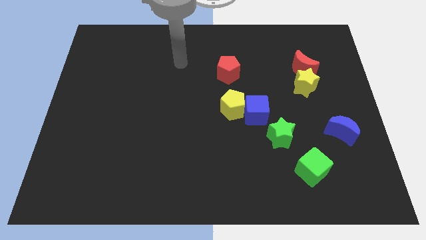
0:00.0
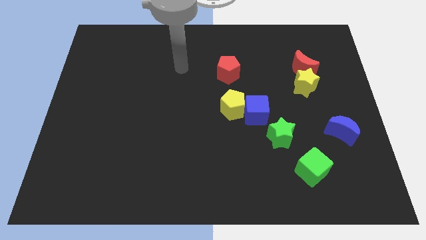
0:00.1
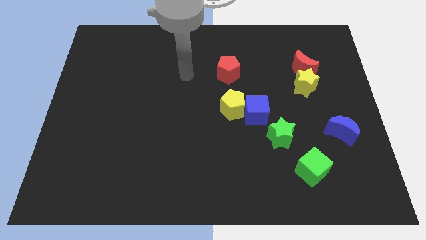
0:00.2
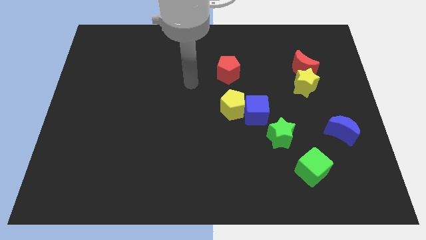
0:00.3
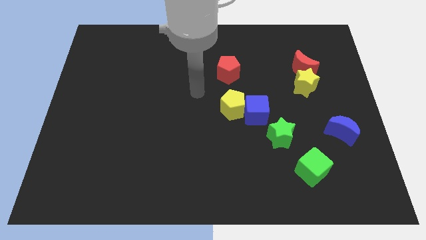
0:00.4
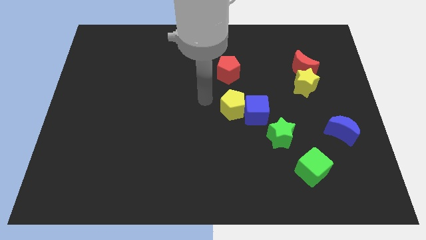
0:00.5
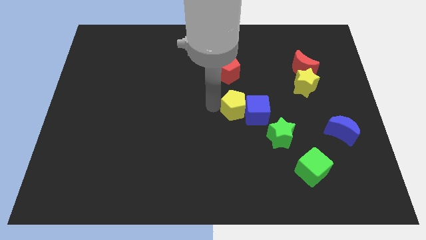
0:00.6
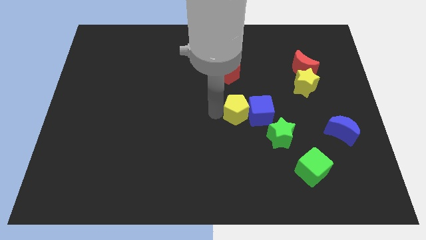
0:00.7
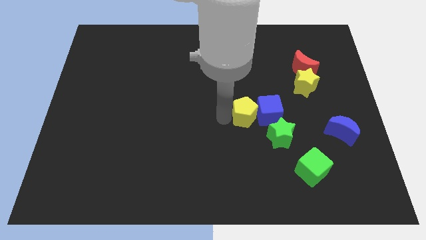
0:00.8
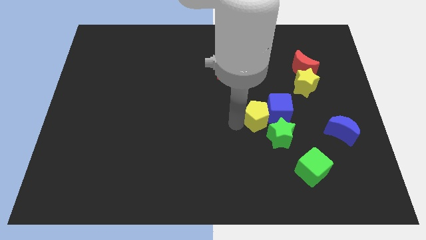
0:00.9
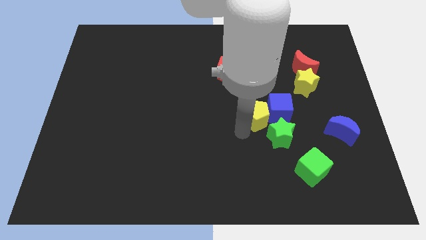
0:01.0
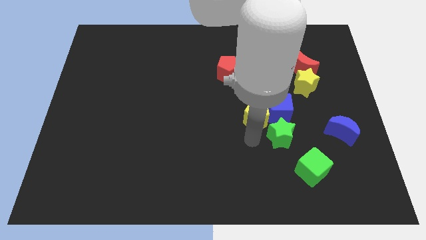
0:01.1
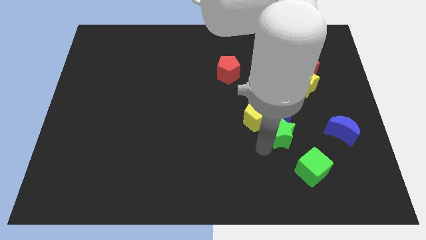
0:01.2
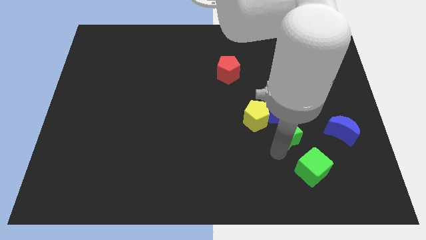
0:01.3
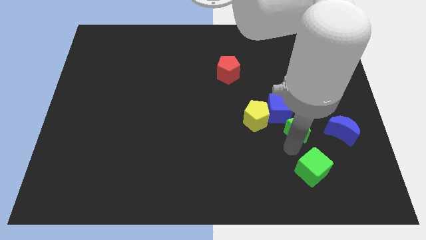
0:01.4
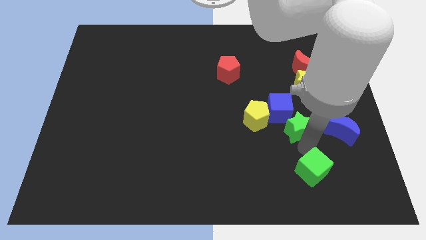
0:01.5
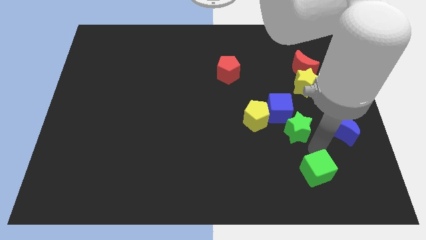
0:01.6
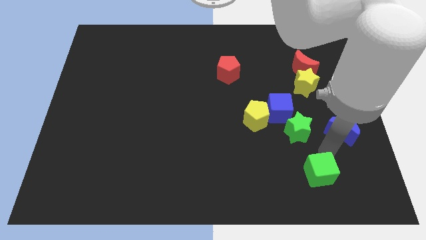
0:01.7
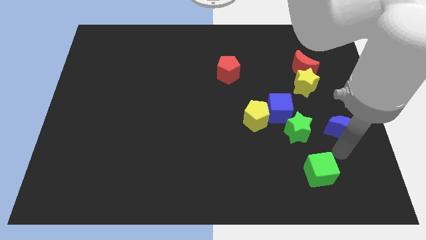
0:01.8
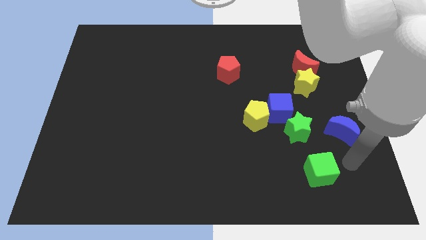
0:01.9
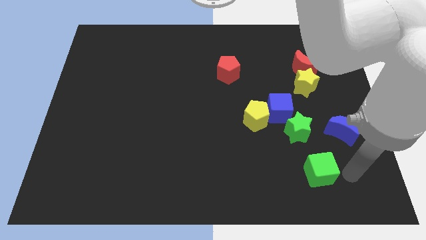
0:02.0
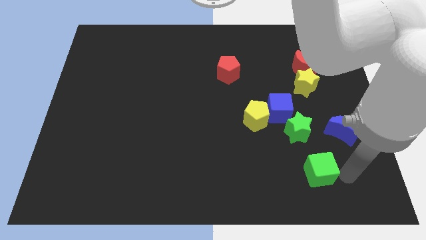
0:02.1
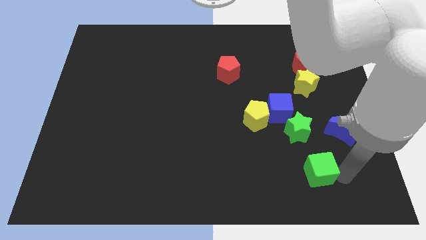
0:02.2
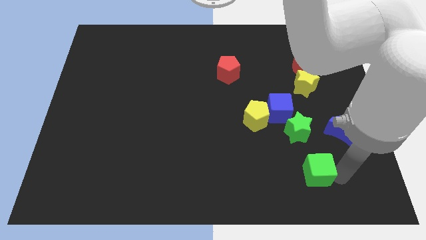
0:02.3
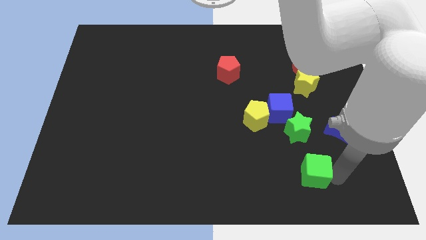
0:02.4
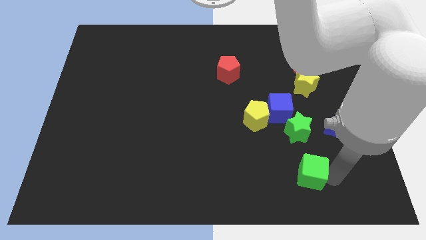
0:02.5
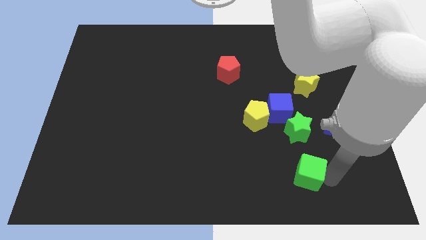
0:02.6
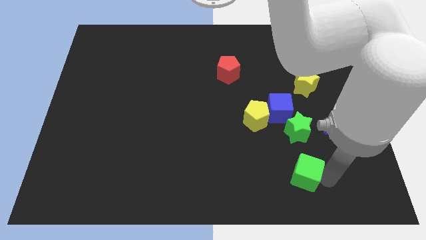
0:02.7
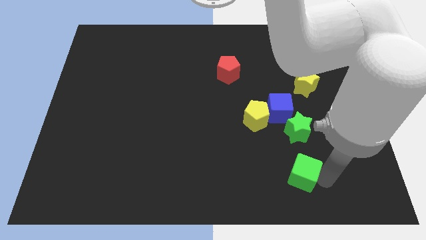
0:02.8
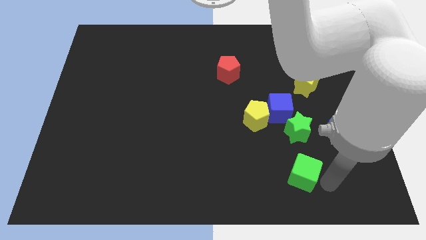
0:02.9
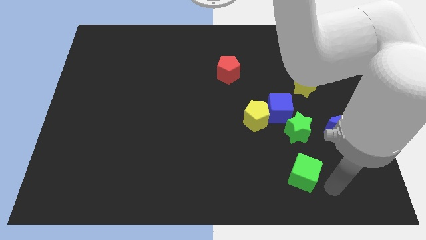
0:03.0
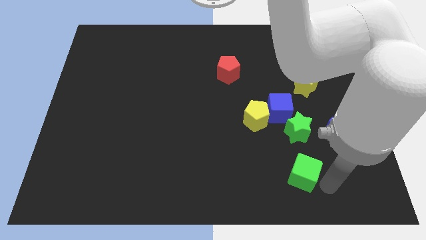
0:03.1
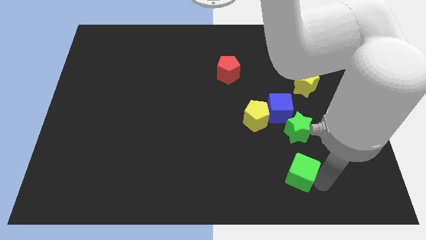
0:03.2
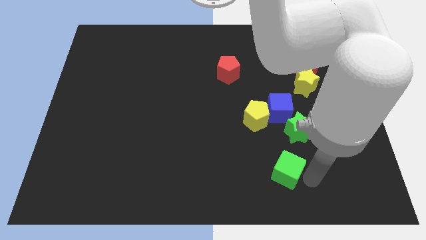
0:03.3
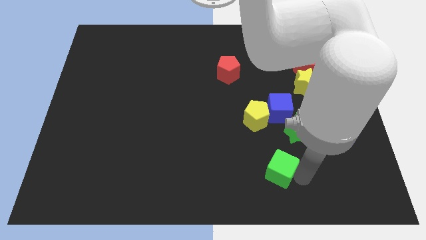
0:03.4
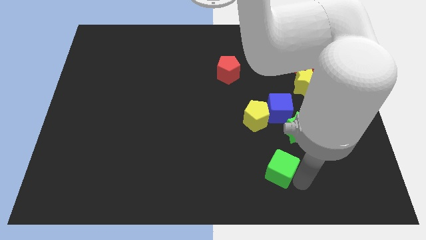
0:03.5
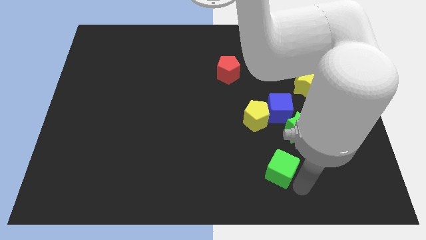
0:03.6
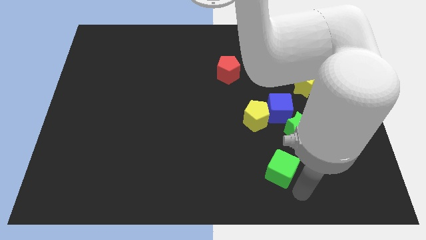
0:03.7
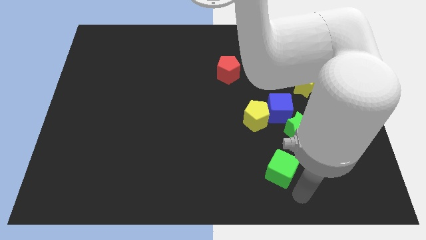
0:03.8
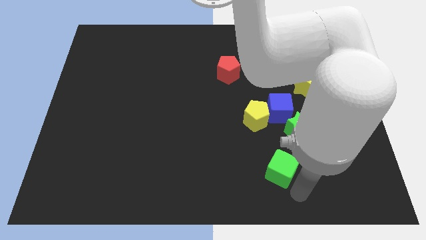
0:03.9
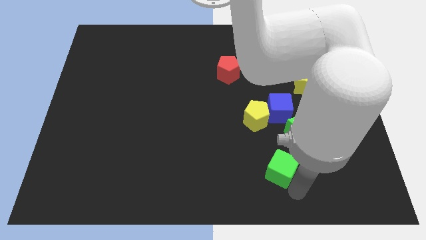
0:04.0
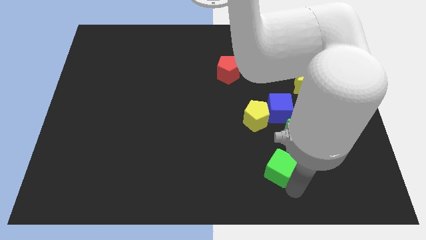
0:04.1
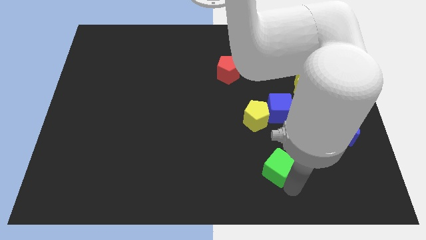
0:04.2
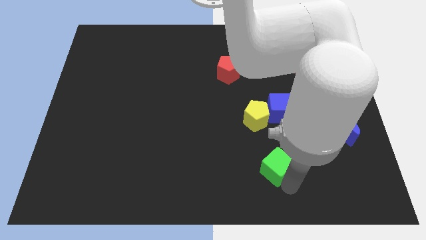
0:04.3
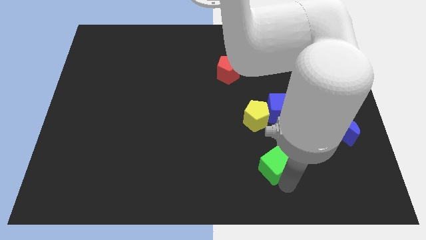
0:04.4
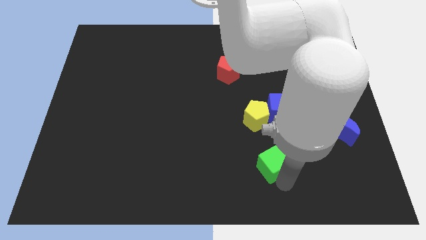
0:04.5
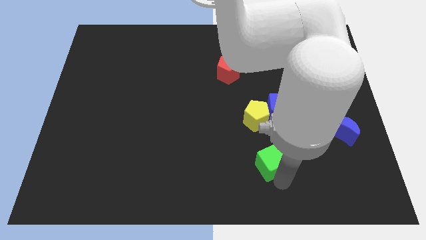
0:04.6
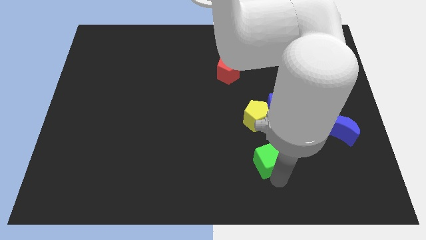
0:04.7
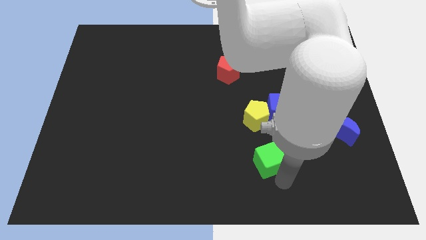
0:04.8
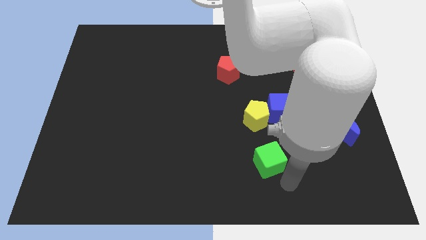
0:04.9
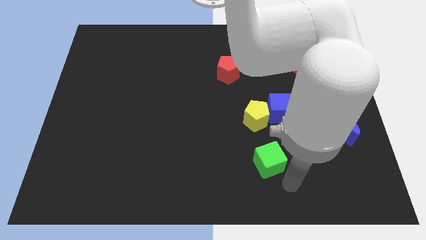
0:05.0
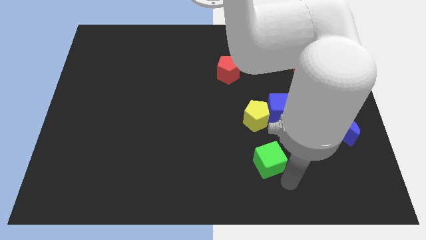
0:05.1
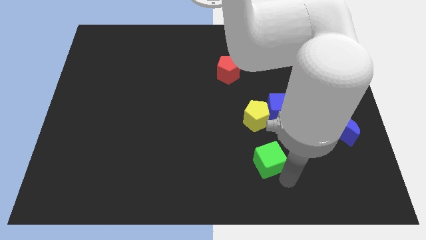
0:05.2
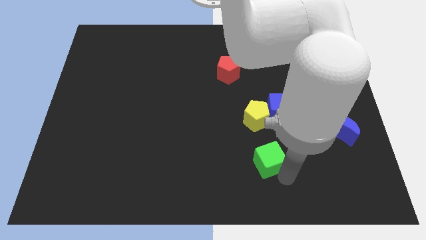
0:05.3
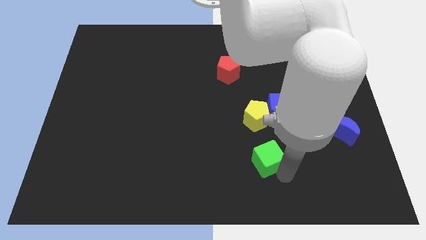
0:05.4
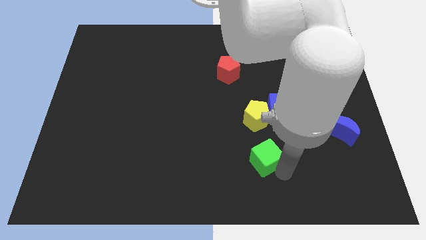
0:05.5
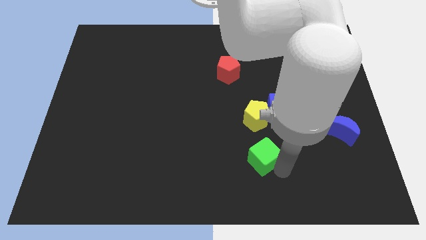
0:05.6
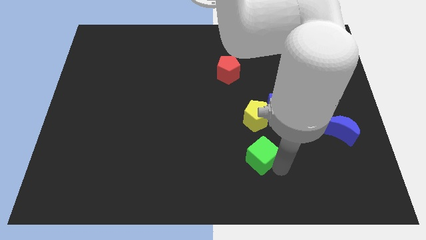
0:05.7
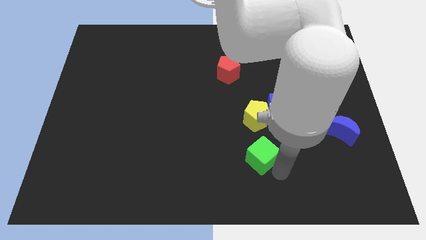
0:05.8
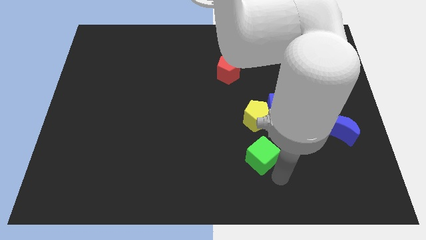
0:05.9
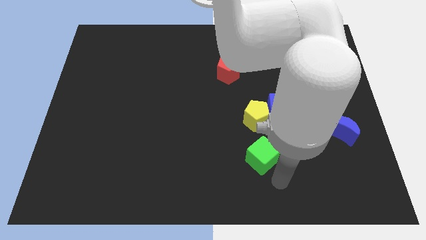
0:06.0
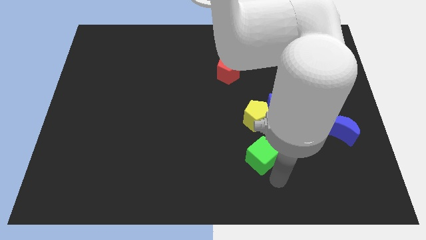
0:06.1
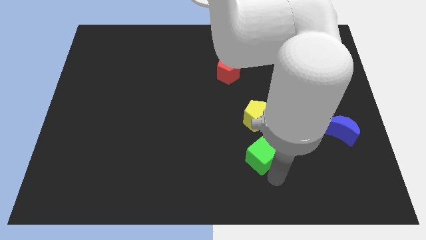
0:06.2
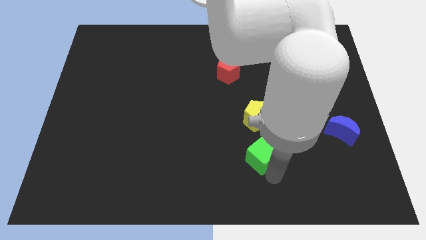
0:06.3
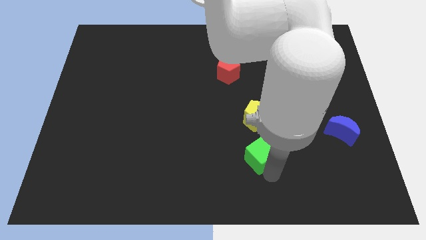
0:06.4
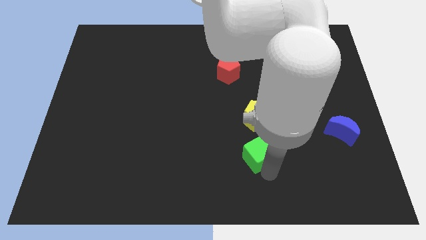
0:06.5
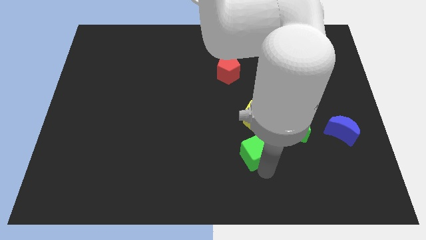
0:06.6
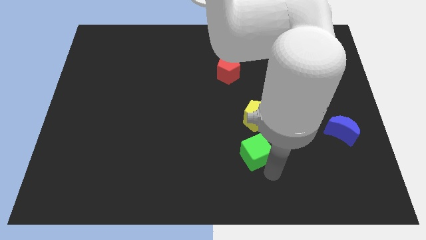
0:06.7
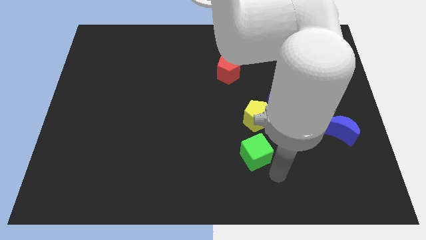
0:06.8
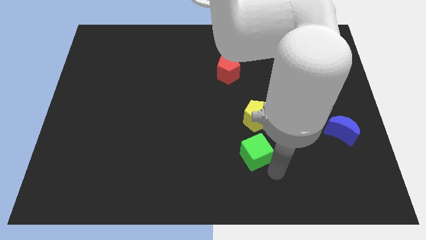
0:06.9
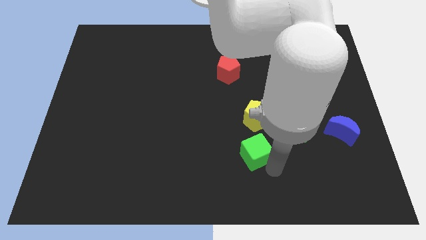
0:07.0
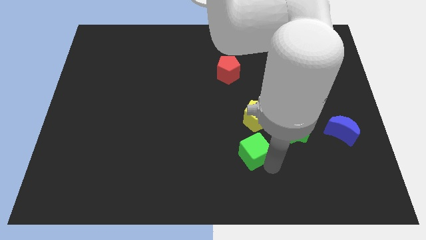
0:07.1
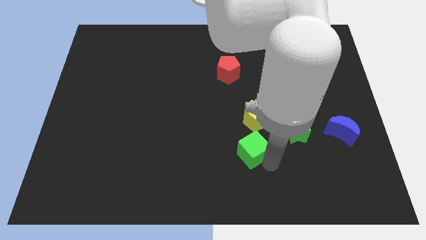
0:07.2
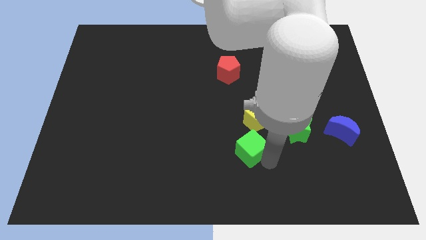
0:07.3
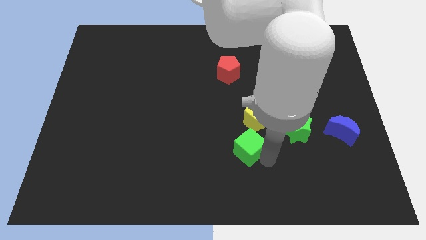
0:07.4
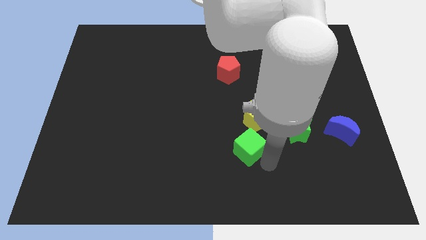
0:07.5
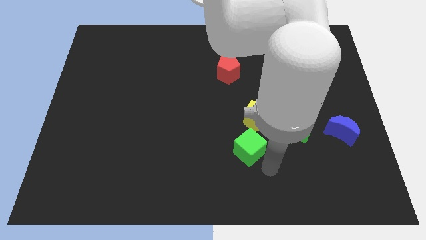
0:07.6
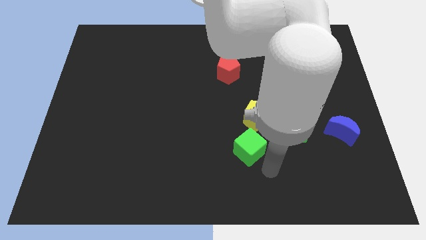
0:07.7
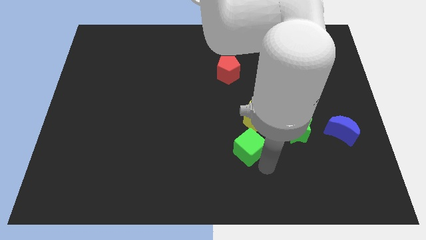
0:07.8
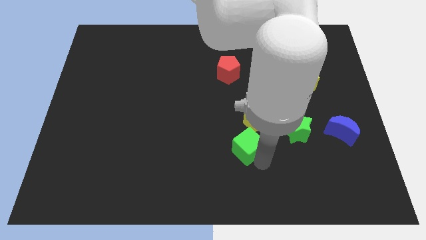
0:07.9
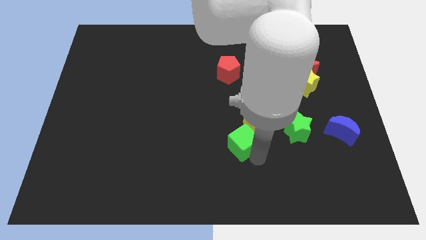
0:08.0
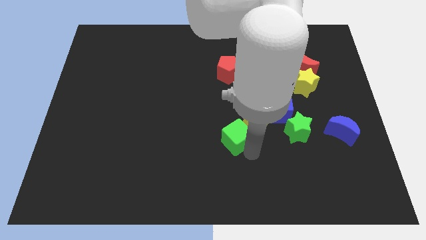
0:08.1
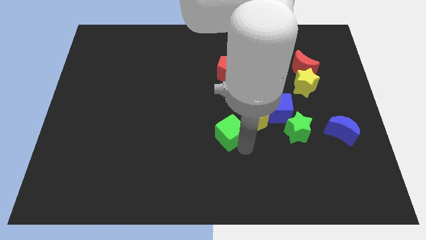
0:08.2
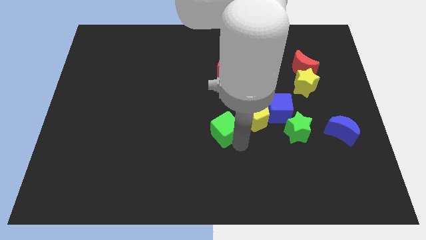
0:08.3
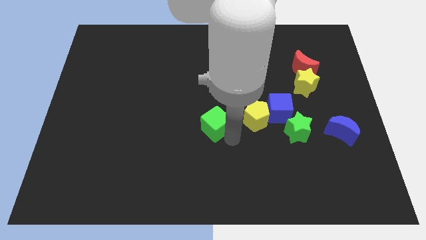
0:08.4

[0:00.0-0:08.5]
slide the green cube up and to the left diagonally
